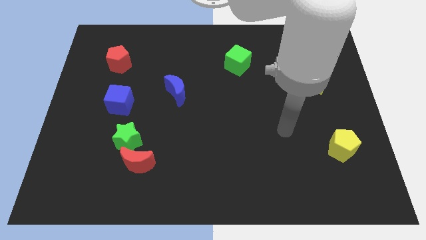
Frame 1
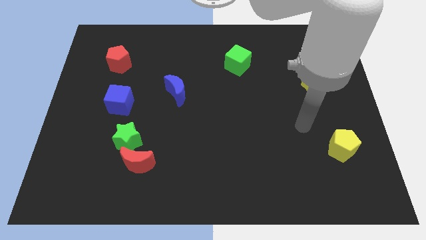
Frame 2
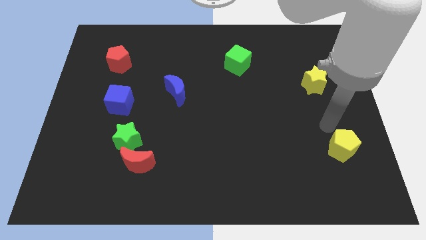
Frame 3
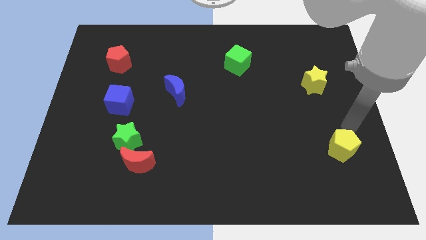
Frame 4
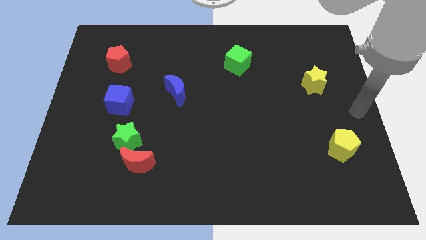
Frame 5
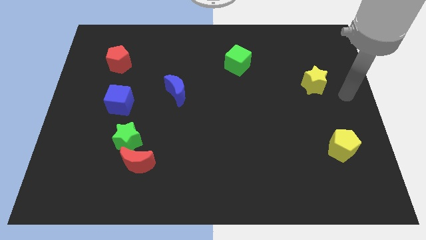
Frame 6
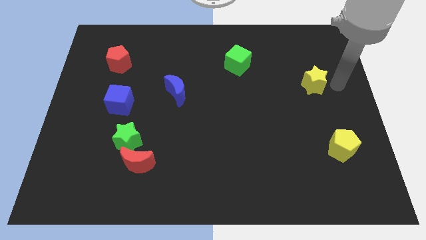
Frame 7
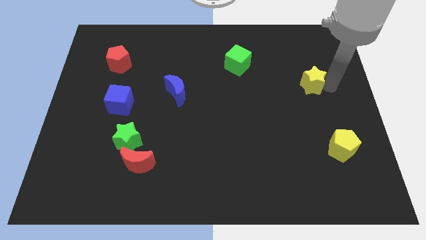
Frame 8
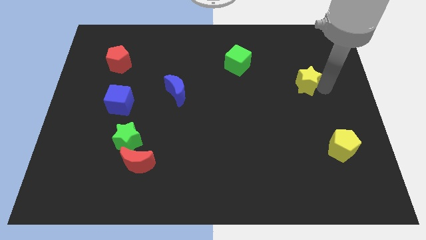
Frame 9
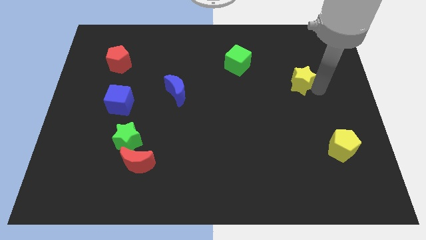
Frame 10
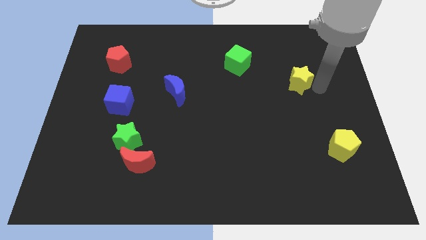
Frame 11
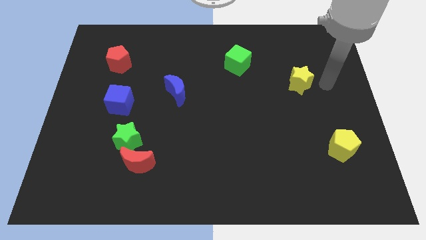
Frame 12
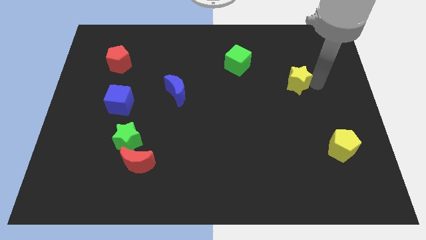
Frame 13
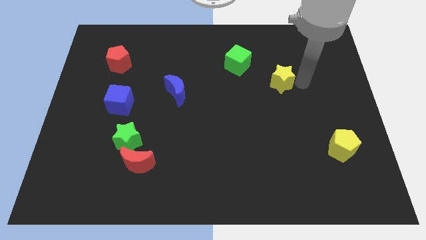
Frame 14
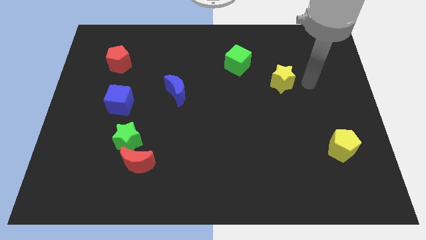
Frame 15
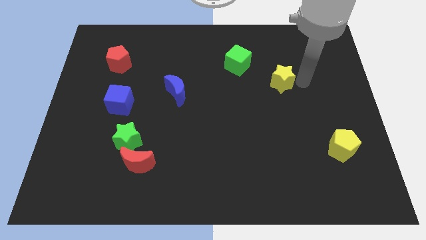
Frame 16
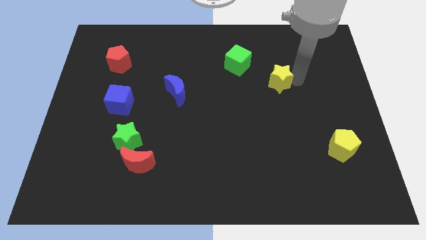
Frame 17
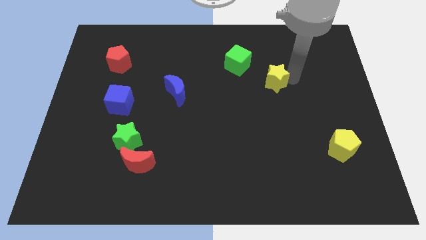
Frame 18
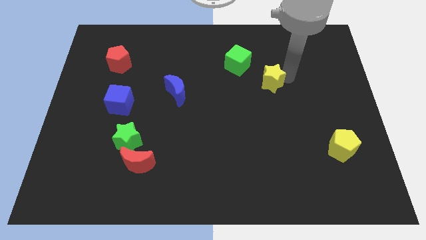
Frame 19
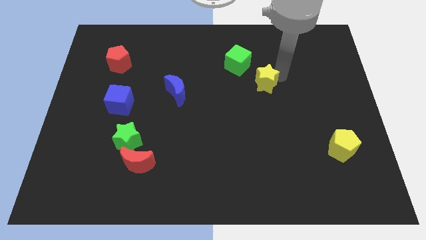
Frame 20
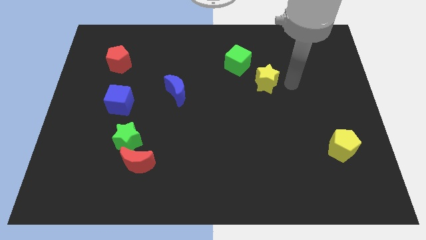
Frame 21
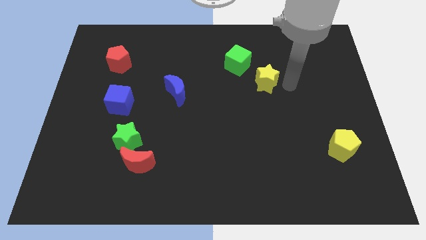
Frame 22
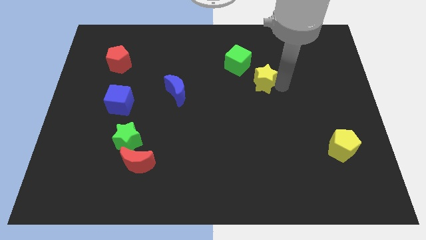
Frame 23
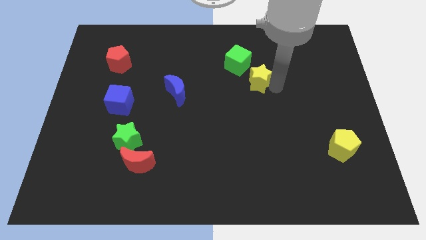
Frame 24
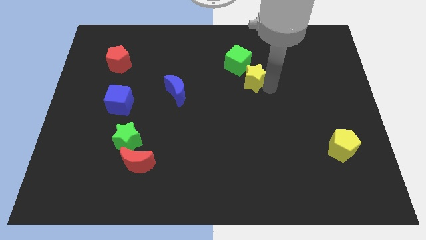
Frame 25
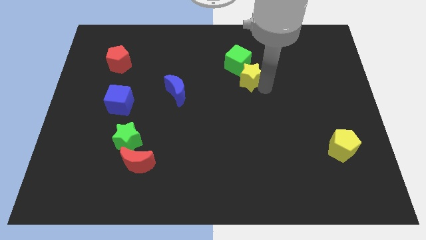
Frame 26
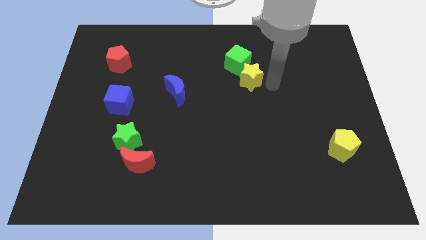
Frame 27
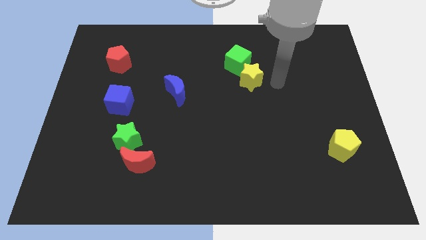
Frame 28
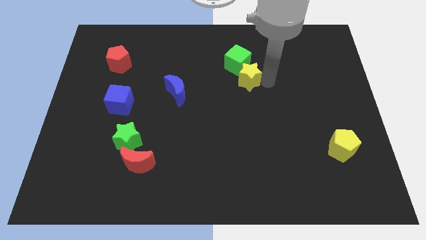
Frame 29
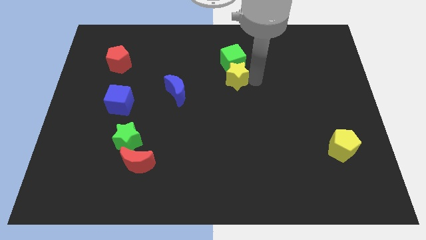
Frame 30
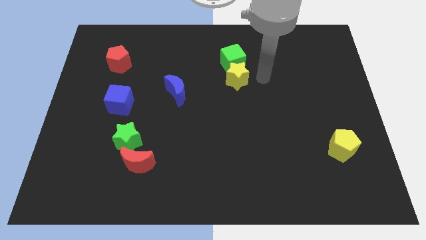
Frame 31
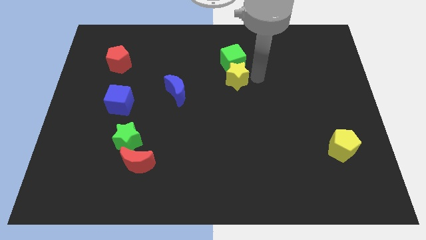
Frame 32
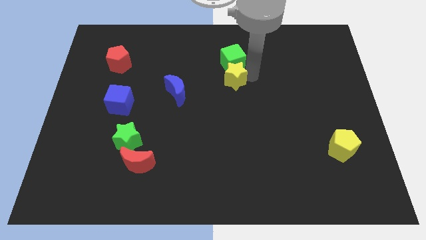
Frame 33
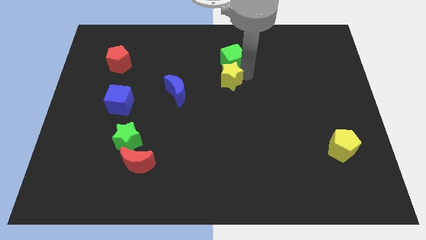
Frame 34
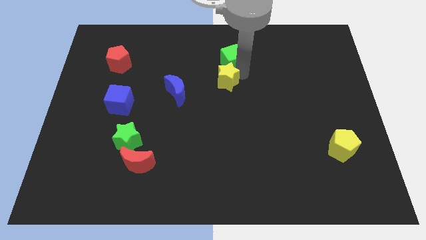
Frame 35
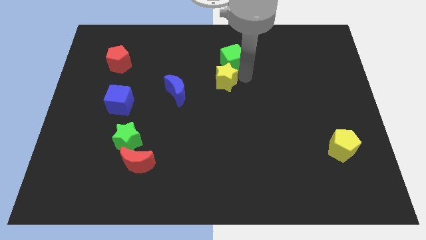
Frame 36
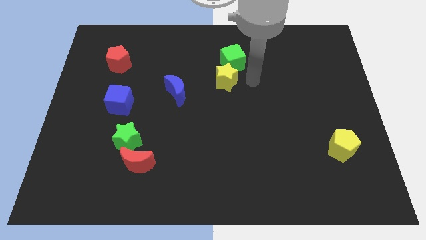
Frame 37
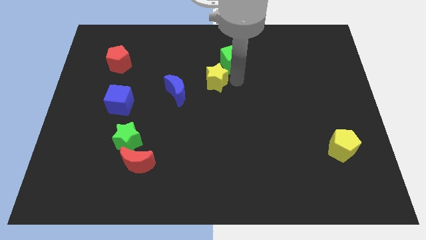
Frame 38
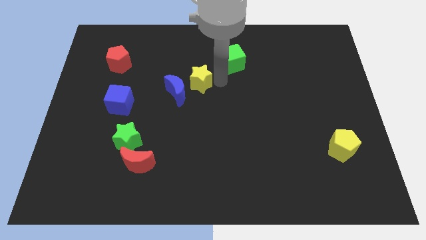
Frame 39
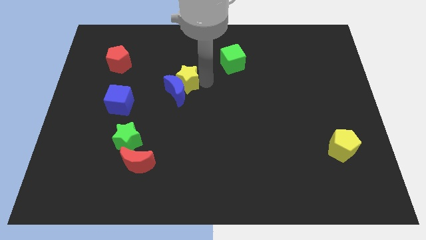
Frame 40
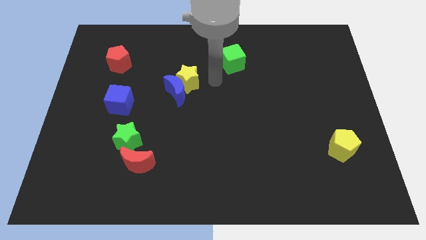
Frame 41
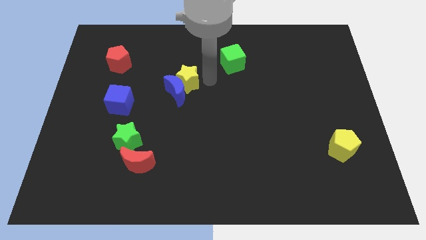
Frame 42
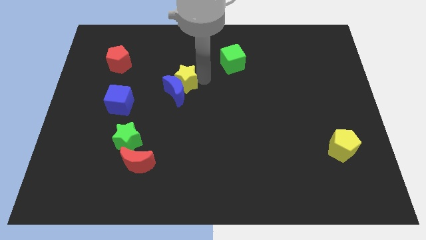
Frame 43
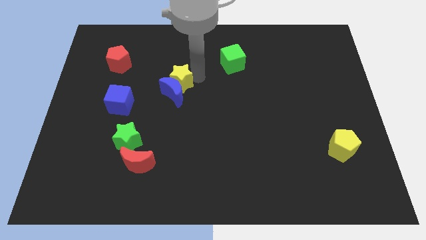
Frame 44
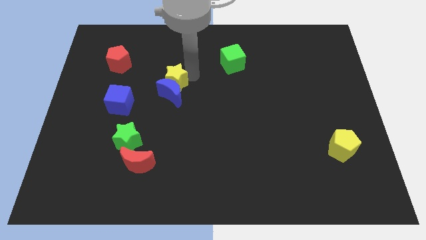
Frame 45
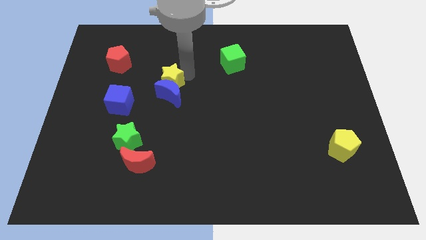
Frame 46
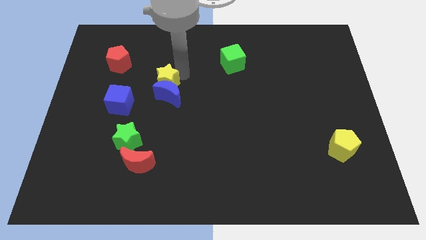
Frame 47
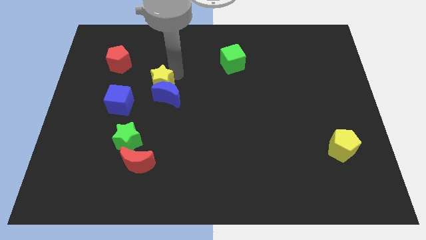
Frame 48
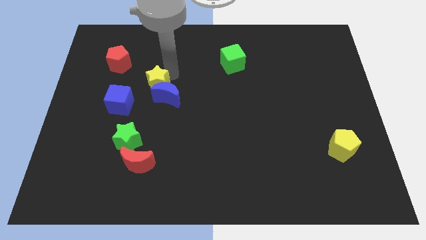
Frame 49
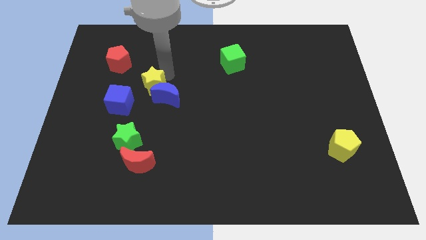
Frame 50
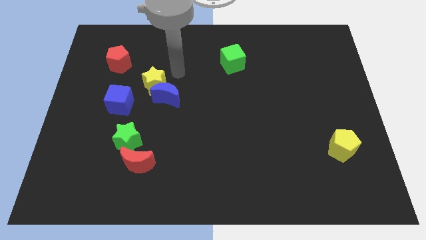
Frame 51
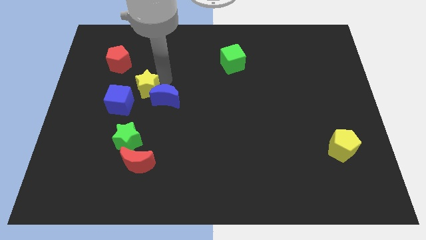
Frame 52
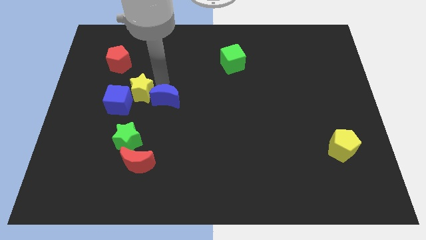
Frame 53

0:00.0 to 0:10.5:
push the yellow star next to the blue cube

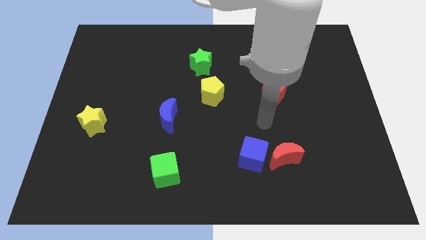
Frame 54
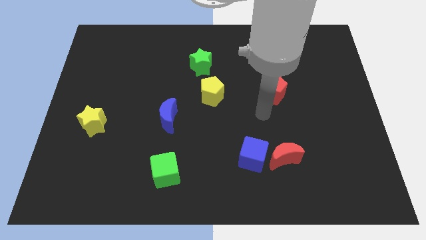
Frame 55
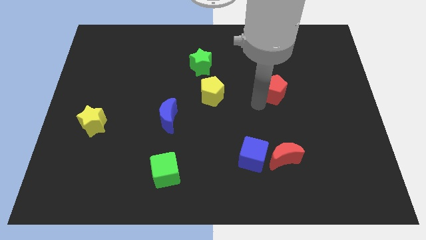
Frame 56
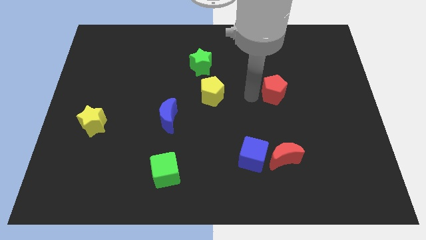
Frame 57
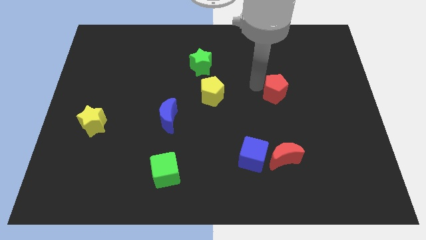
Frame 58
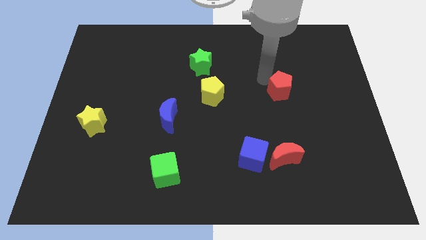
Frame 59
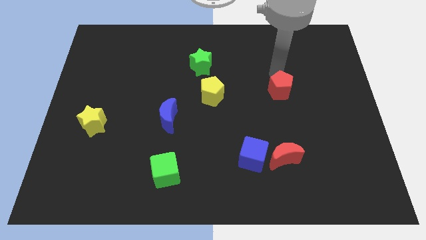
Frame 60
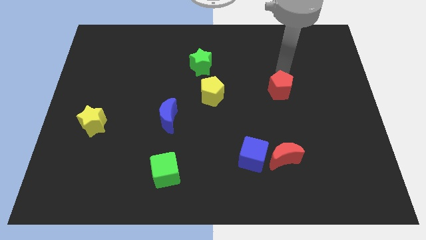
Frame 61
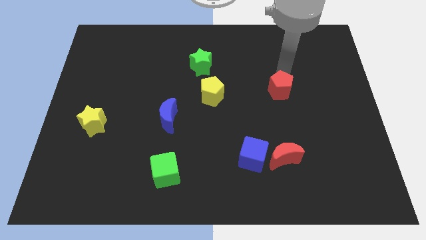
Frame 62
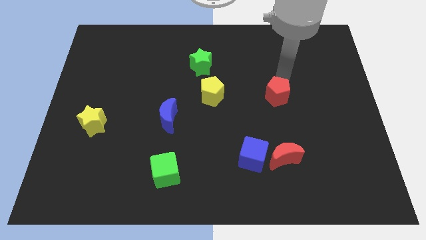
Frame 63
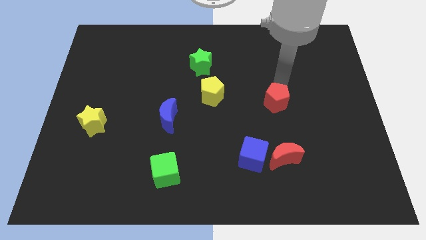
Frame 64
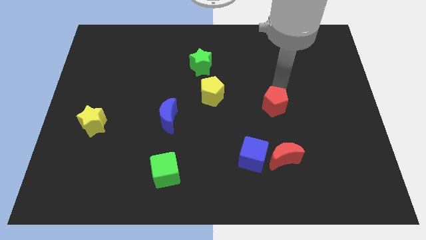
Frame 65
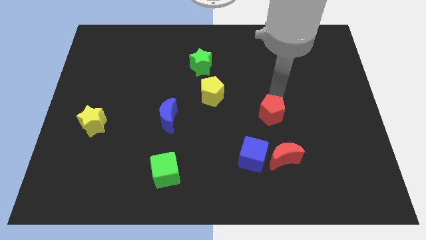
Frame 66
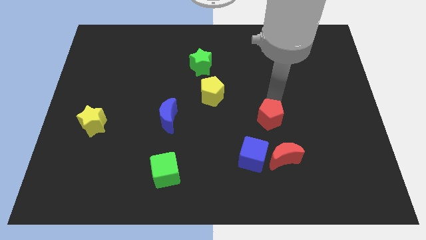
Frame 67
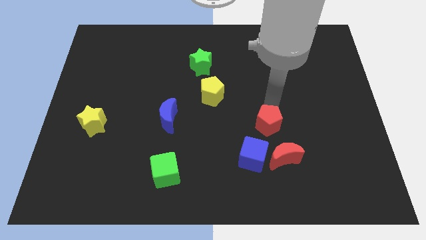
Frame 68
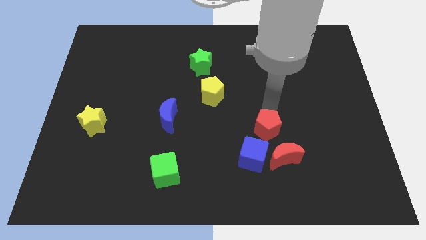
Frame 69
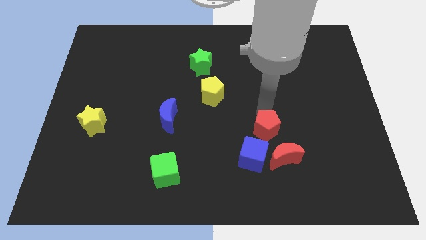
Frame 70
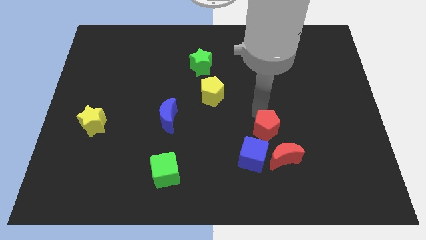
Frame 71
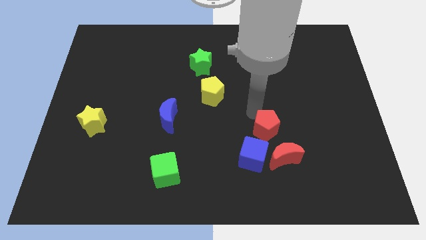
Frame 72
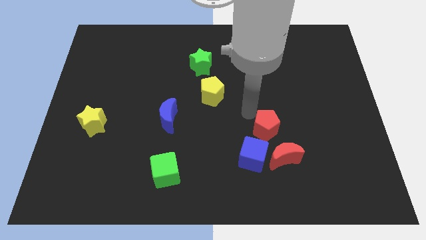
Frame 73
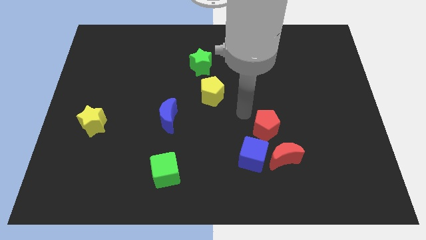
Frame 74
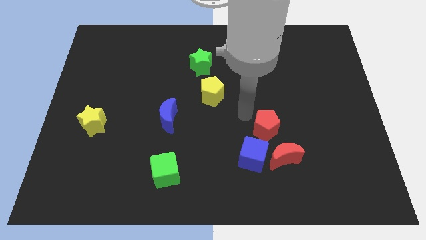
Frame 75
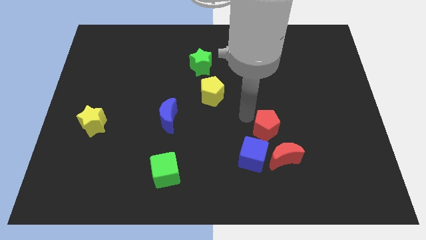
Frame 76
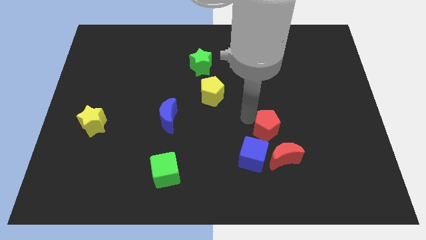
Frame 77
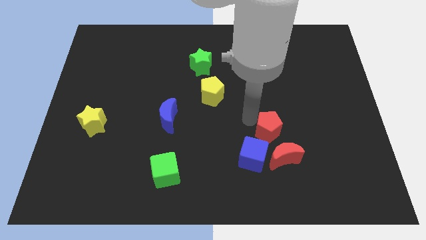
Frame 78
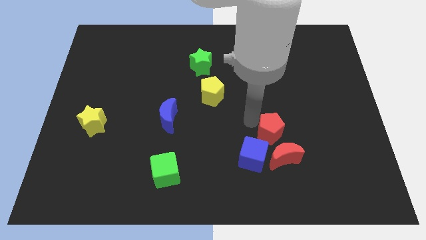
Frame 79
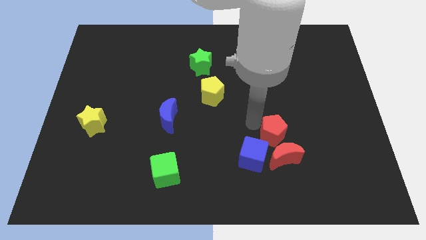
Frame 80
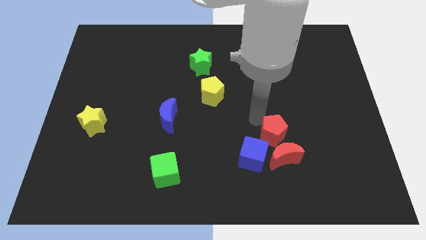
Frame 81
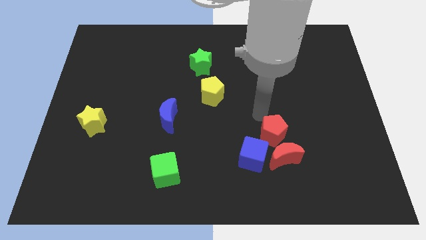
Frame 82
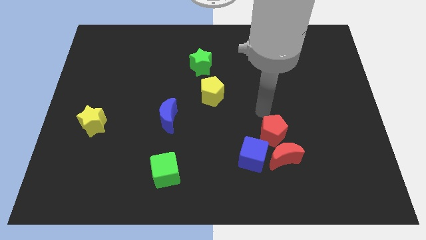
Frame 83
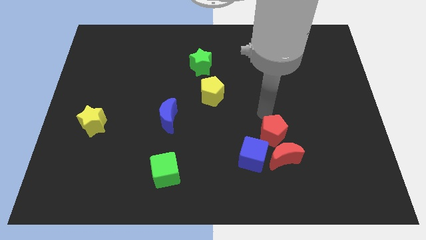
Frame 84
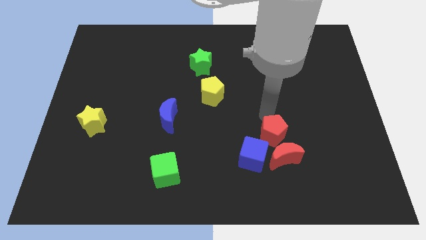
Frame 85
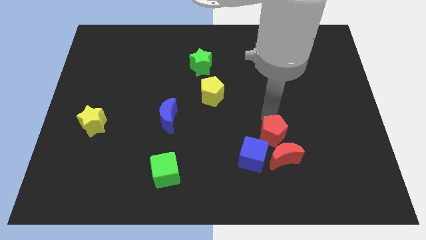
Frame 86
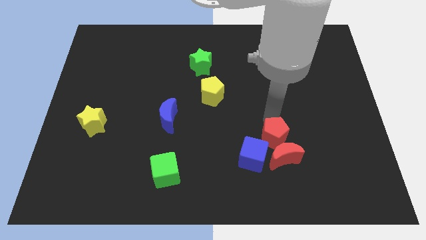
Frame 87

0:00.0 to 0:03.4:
put the red pentagon towards the red moon
